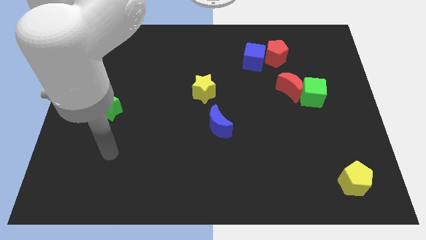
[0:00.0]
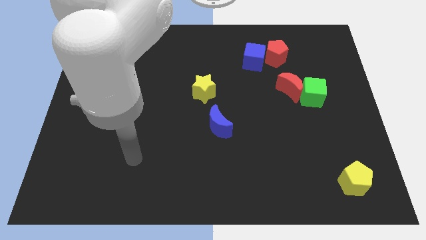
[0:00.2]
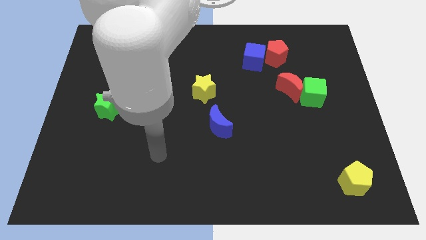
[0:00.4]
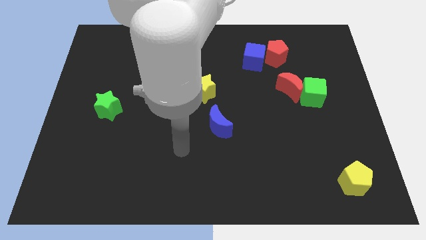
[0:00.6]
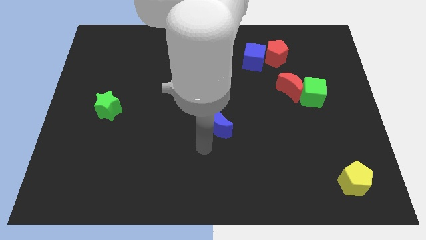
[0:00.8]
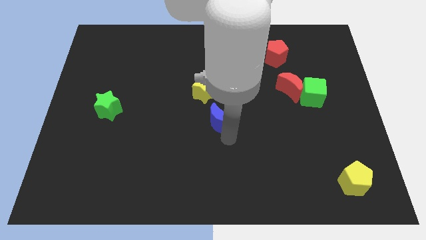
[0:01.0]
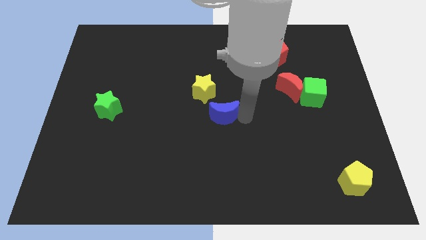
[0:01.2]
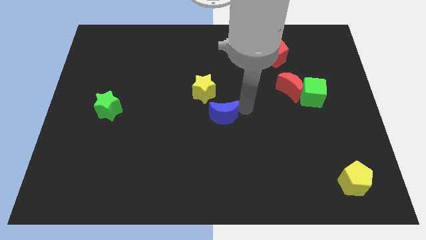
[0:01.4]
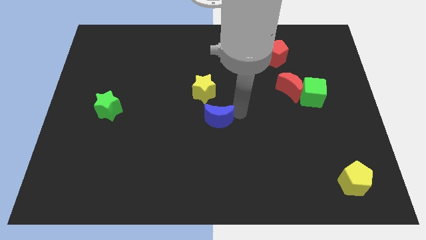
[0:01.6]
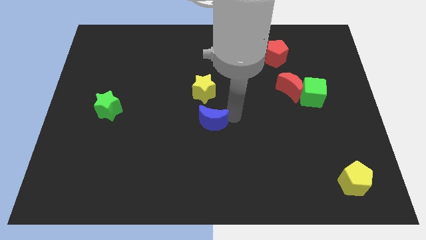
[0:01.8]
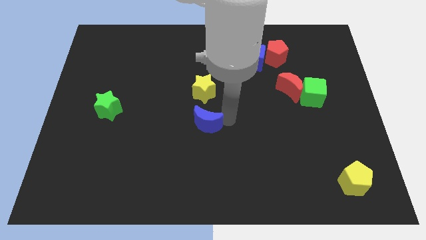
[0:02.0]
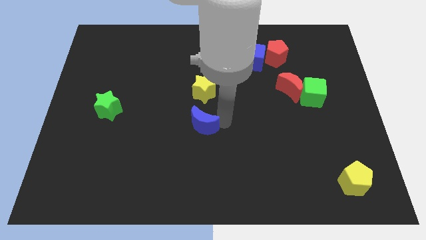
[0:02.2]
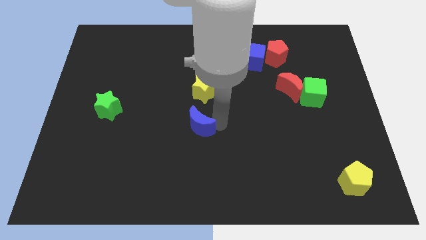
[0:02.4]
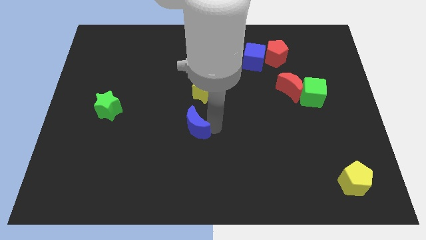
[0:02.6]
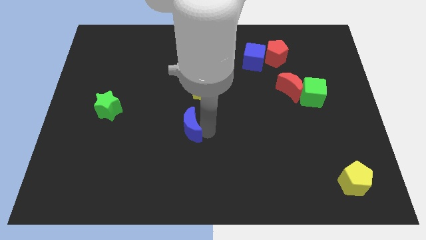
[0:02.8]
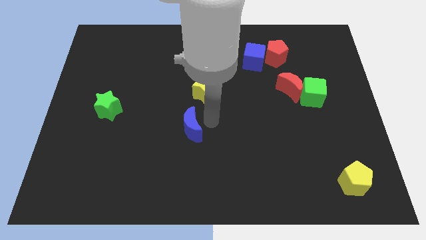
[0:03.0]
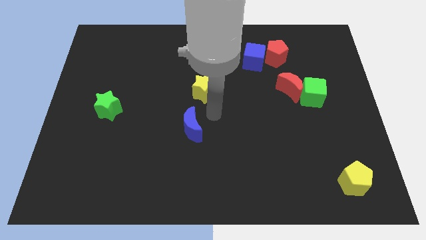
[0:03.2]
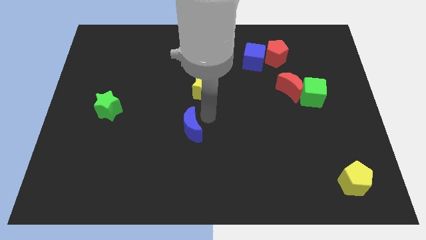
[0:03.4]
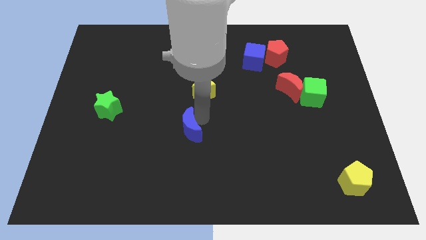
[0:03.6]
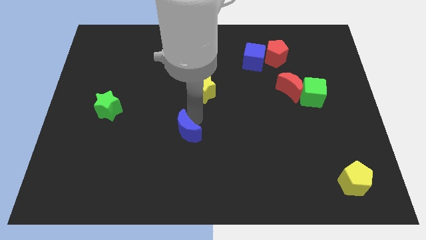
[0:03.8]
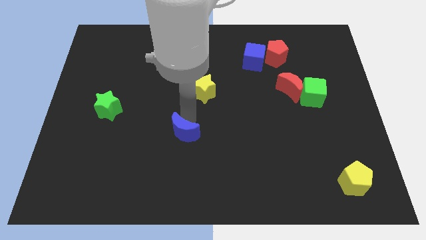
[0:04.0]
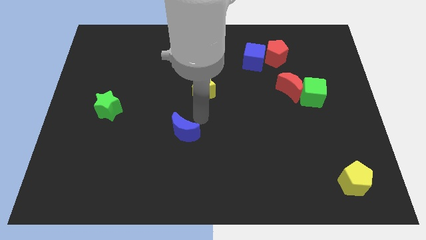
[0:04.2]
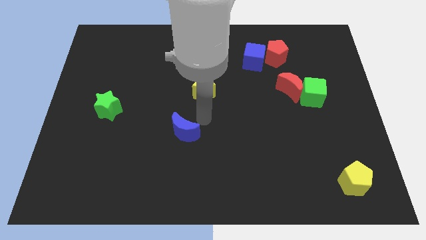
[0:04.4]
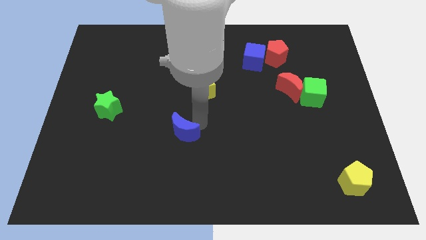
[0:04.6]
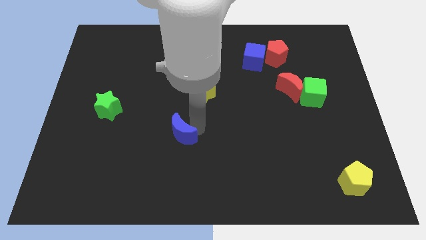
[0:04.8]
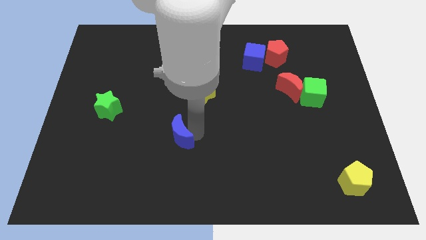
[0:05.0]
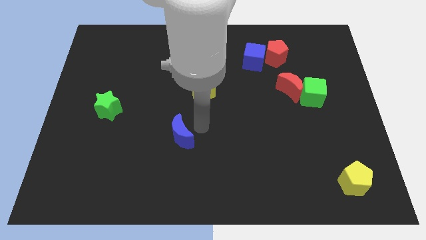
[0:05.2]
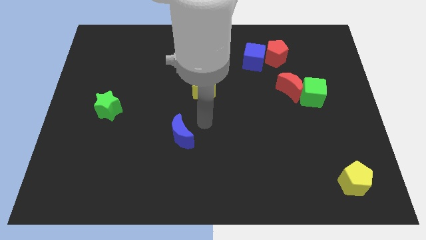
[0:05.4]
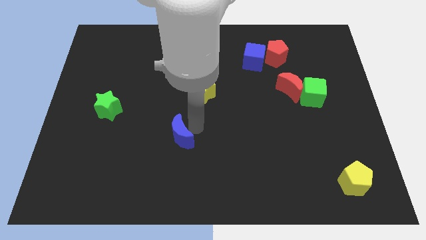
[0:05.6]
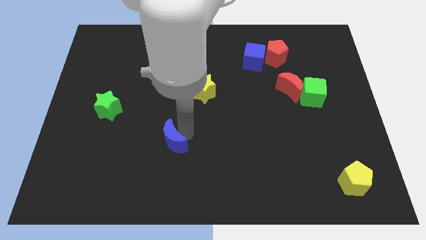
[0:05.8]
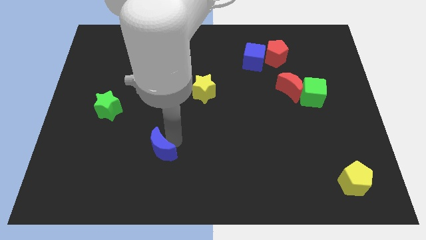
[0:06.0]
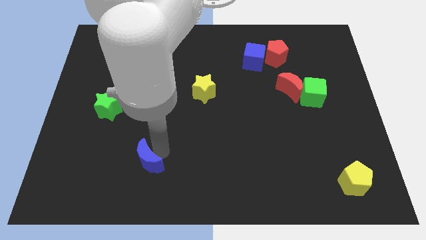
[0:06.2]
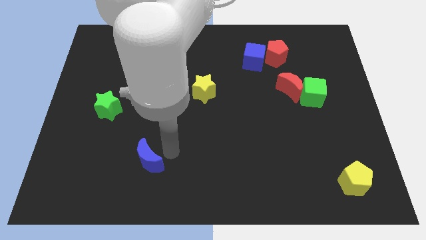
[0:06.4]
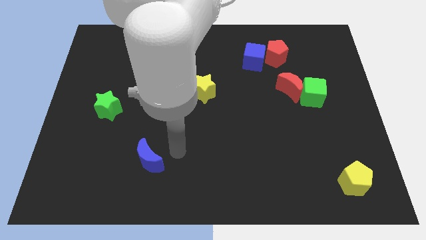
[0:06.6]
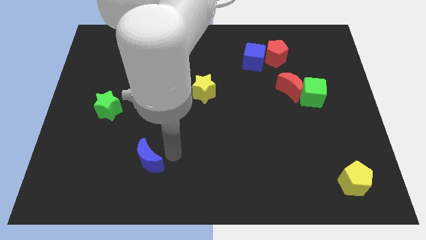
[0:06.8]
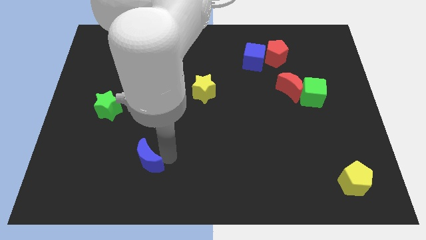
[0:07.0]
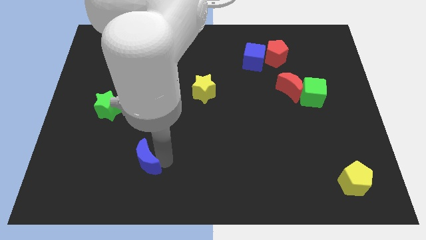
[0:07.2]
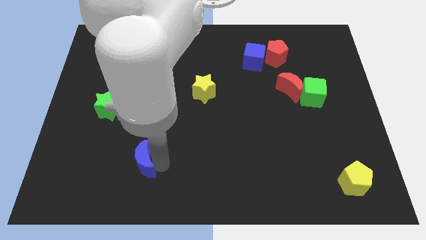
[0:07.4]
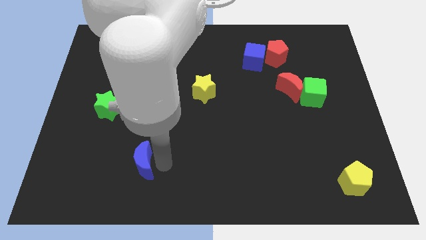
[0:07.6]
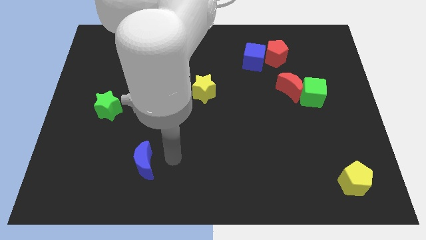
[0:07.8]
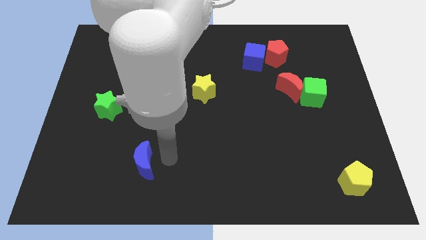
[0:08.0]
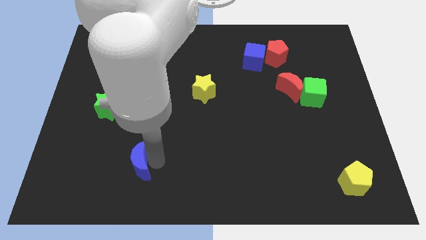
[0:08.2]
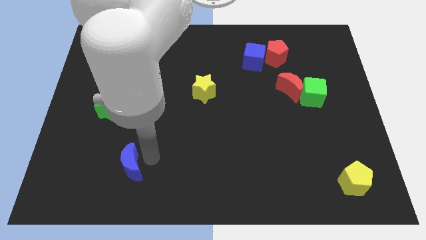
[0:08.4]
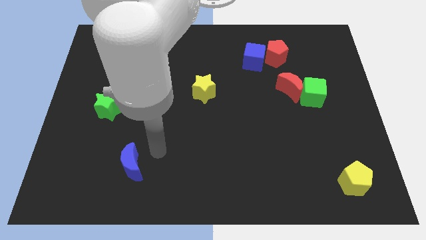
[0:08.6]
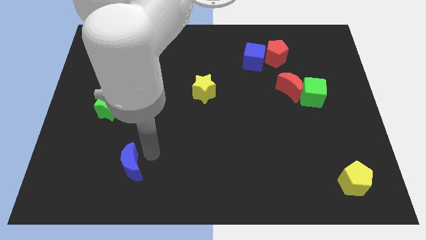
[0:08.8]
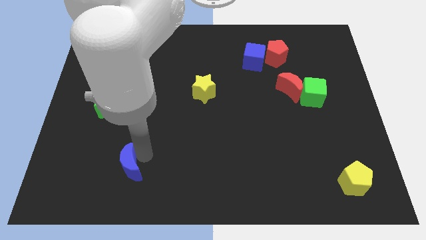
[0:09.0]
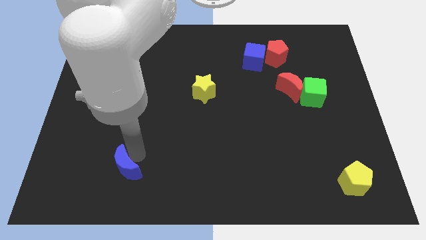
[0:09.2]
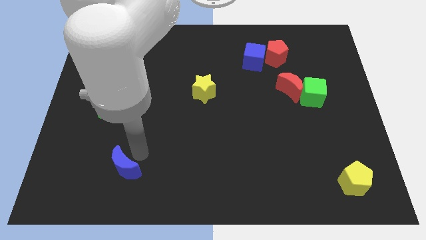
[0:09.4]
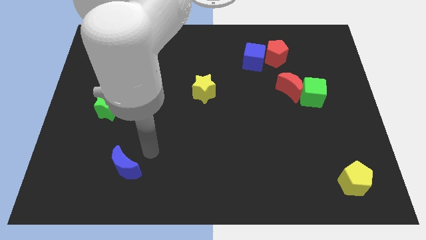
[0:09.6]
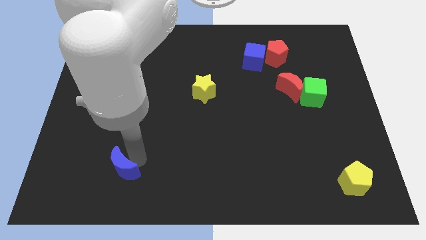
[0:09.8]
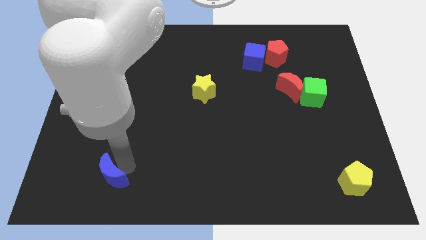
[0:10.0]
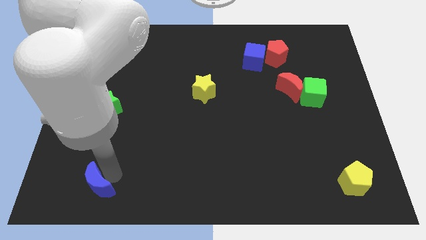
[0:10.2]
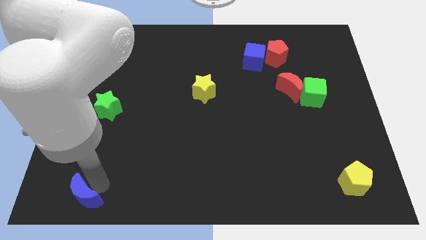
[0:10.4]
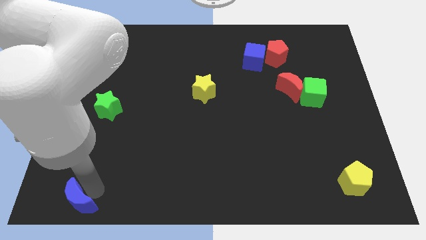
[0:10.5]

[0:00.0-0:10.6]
push the blue moon to the bottom left
